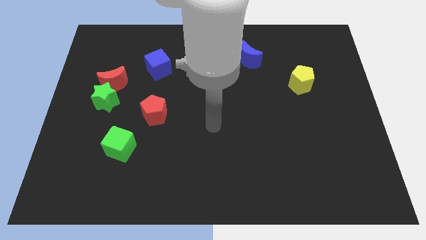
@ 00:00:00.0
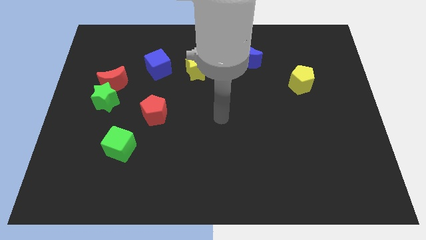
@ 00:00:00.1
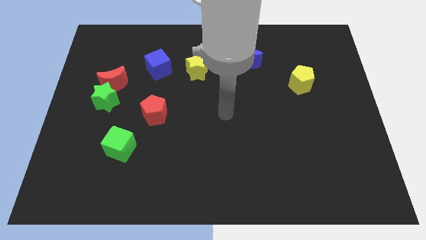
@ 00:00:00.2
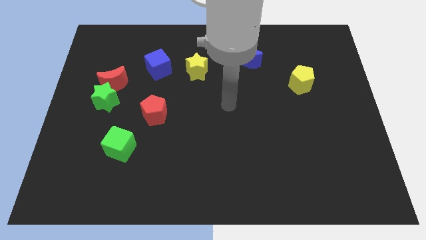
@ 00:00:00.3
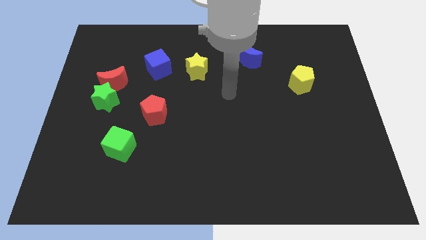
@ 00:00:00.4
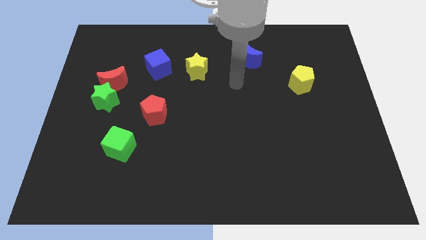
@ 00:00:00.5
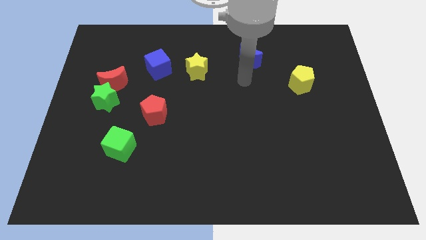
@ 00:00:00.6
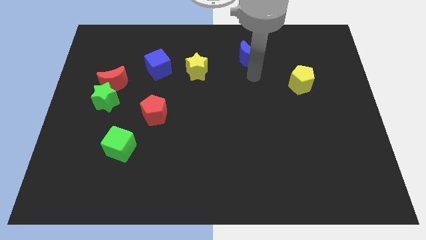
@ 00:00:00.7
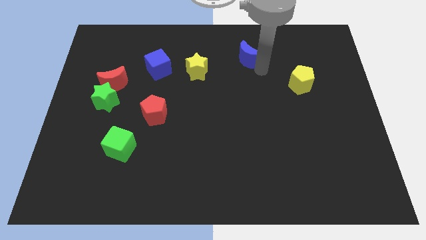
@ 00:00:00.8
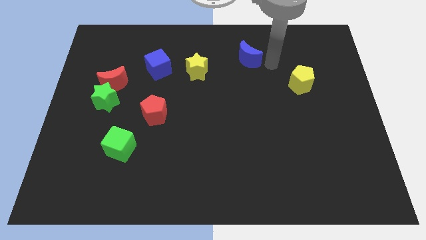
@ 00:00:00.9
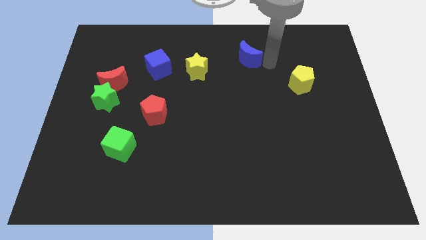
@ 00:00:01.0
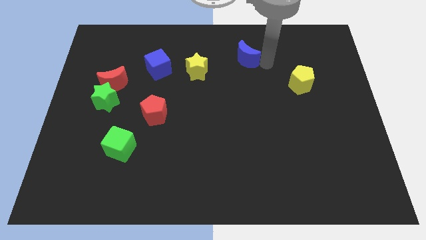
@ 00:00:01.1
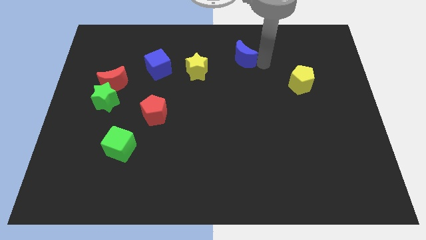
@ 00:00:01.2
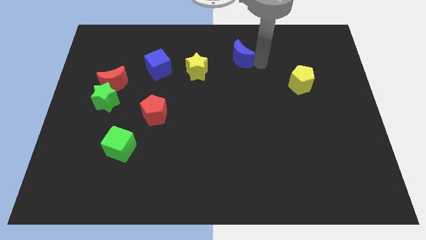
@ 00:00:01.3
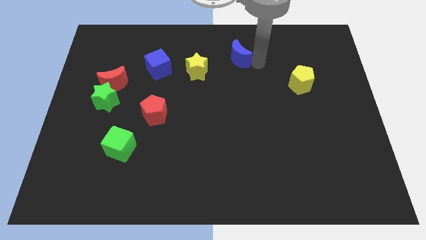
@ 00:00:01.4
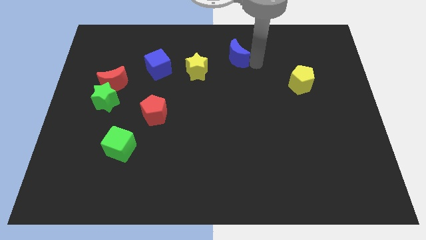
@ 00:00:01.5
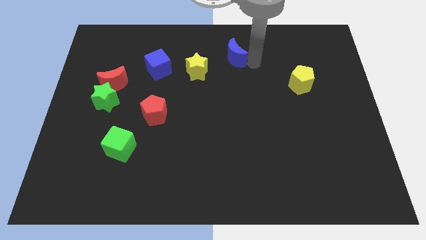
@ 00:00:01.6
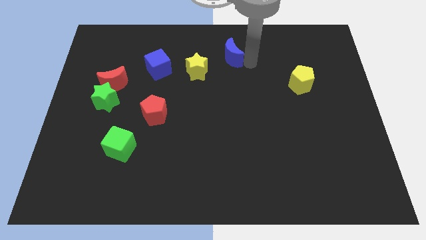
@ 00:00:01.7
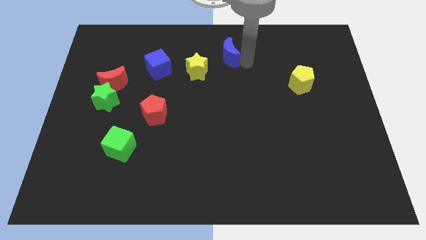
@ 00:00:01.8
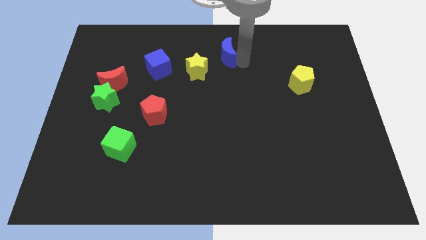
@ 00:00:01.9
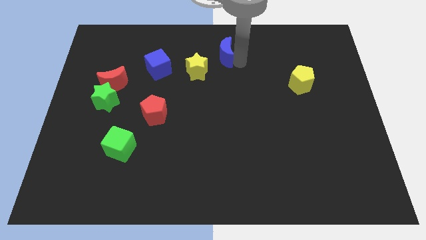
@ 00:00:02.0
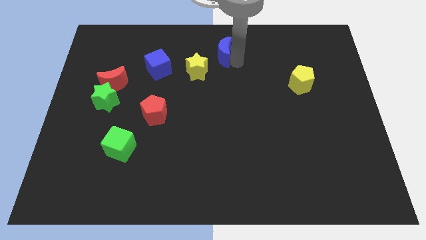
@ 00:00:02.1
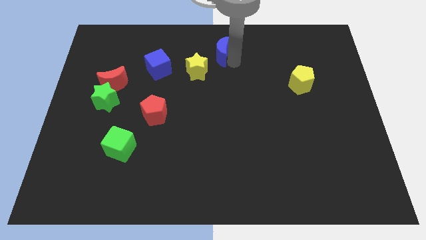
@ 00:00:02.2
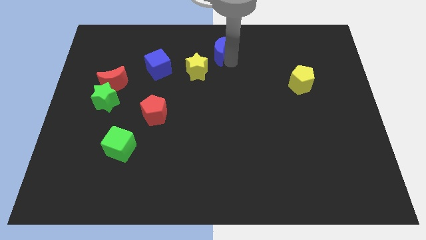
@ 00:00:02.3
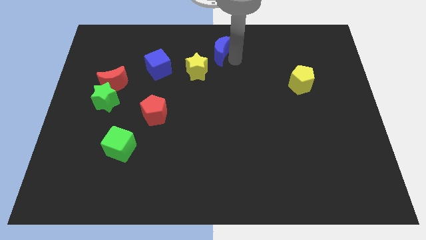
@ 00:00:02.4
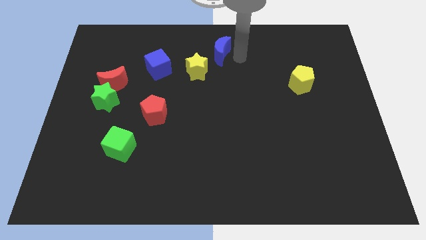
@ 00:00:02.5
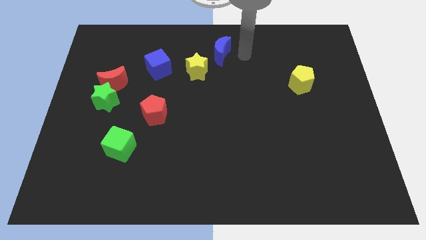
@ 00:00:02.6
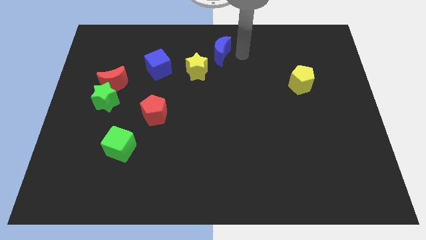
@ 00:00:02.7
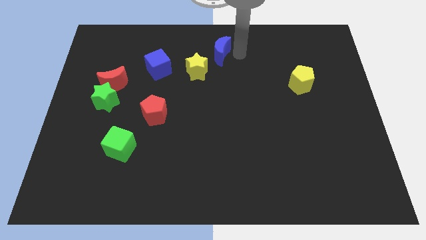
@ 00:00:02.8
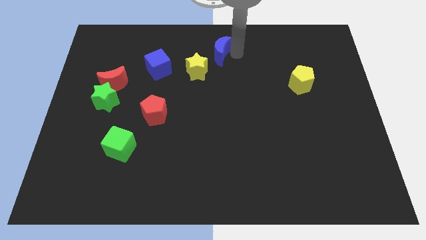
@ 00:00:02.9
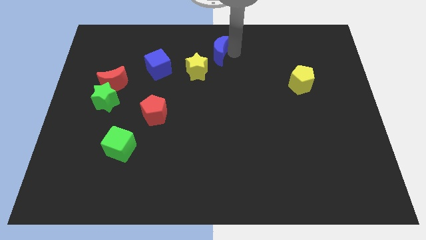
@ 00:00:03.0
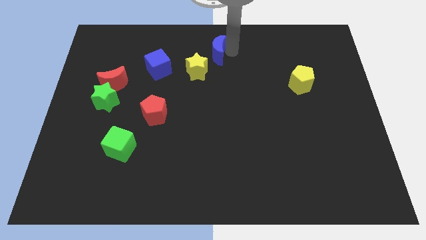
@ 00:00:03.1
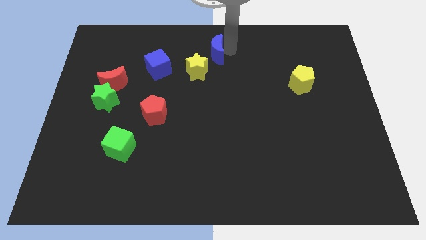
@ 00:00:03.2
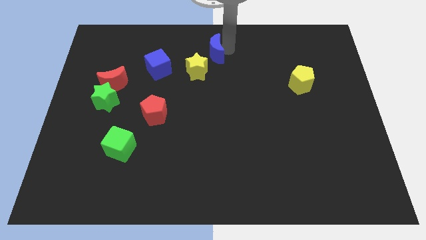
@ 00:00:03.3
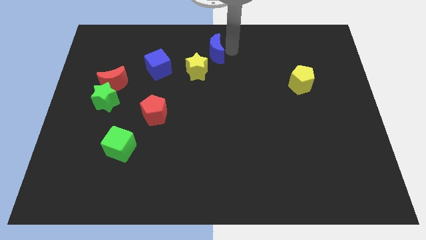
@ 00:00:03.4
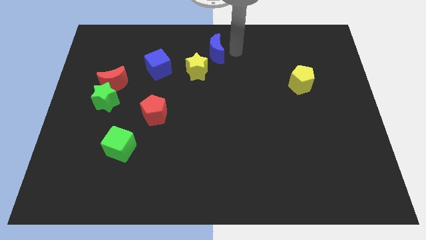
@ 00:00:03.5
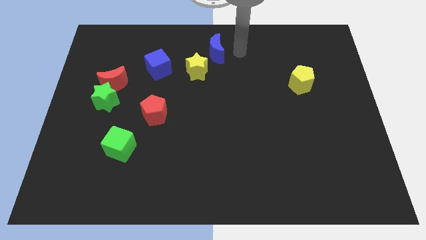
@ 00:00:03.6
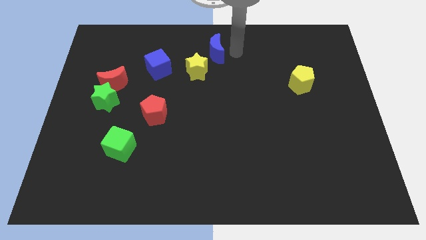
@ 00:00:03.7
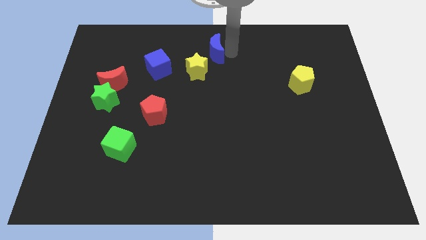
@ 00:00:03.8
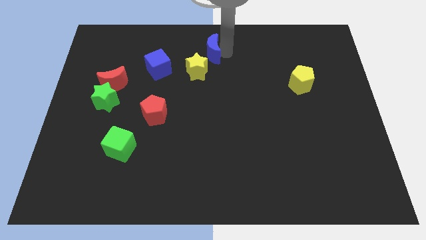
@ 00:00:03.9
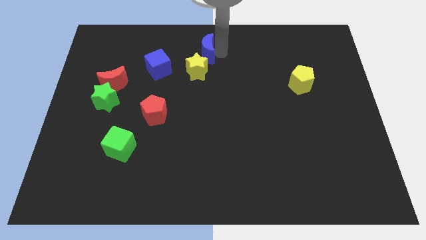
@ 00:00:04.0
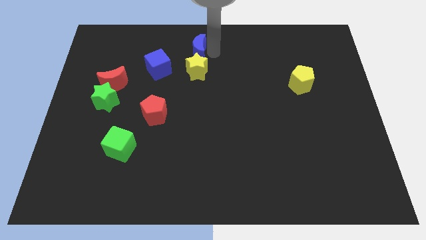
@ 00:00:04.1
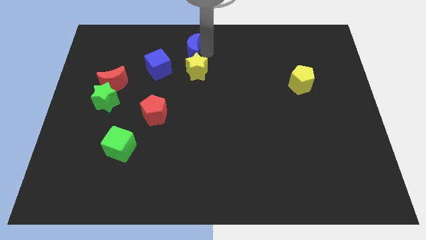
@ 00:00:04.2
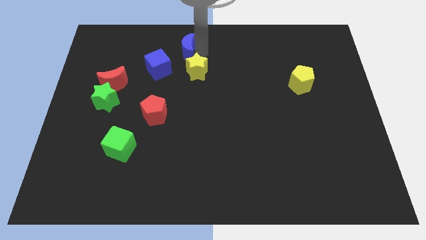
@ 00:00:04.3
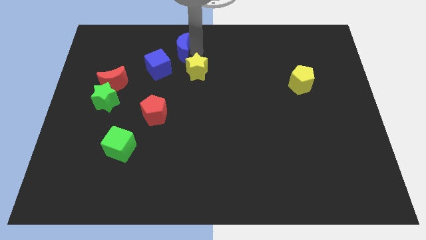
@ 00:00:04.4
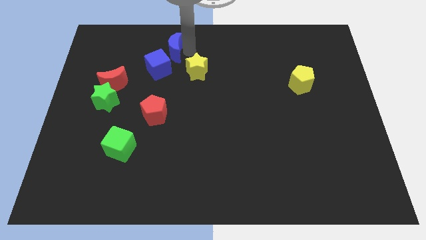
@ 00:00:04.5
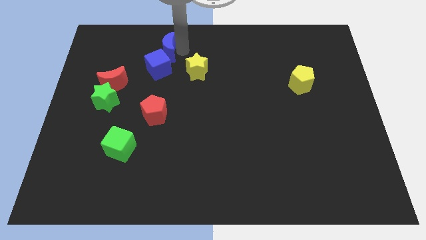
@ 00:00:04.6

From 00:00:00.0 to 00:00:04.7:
slide the blue moon to the left

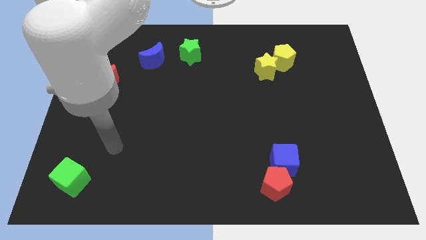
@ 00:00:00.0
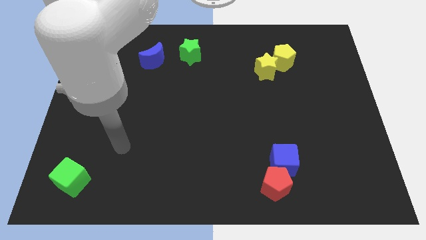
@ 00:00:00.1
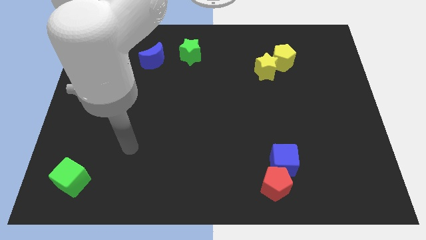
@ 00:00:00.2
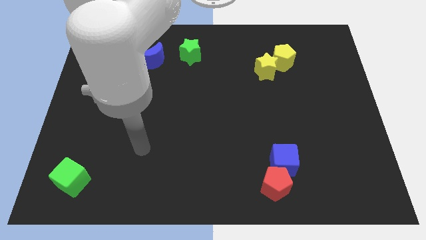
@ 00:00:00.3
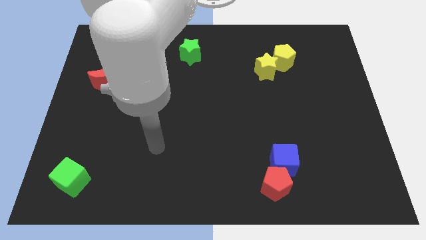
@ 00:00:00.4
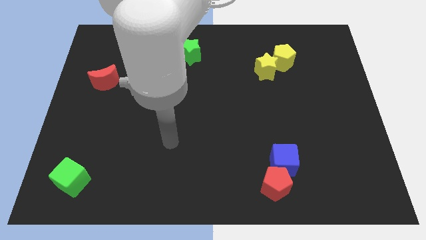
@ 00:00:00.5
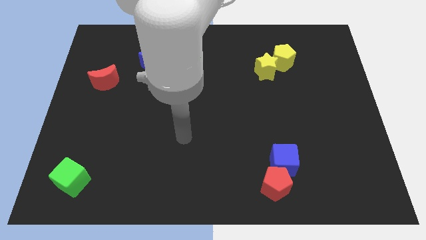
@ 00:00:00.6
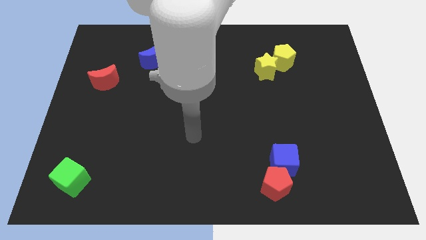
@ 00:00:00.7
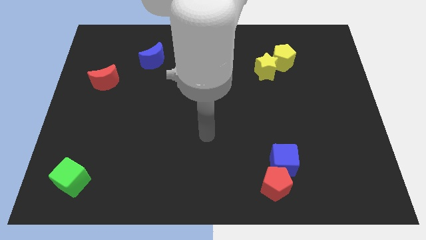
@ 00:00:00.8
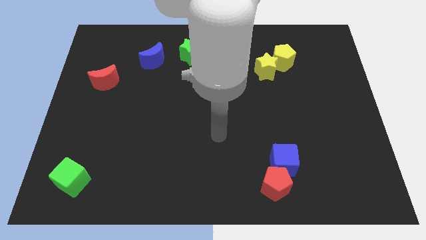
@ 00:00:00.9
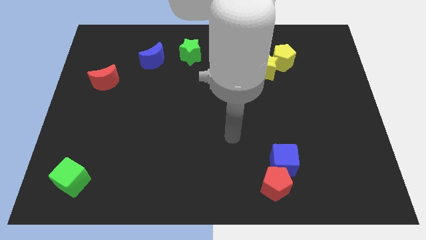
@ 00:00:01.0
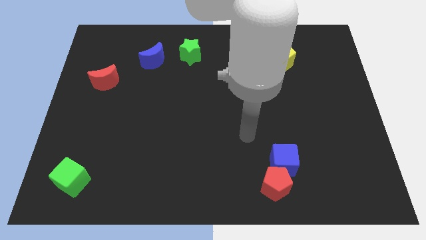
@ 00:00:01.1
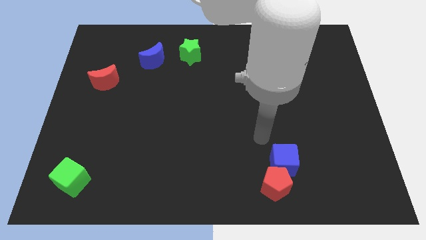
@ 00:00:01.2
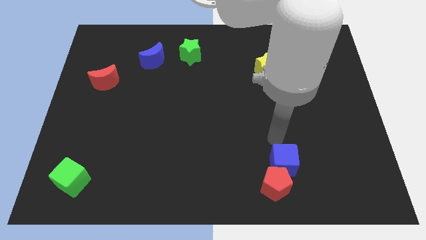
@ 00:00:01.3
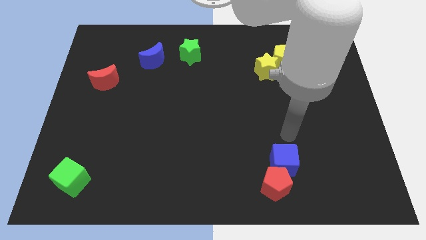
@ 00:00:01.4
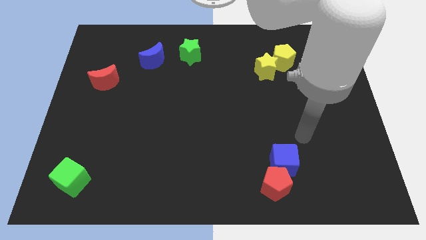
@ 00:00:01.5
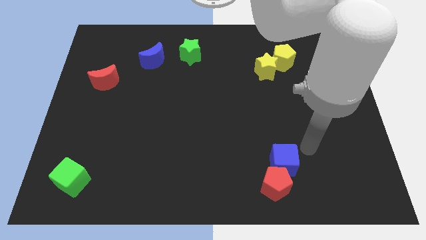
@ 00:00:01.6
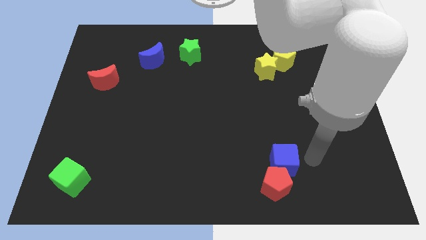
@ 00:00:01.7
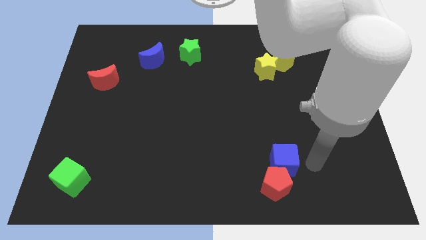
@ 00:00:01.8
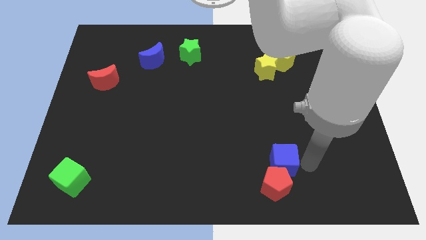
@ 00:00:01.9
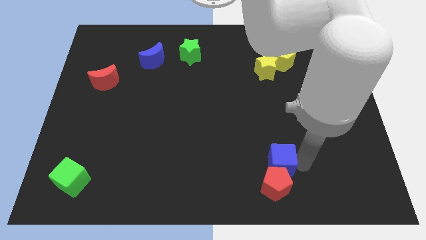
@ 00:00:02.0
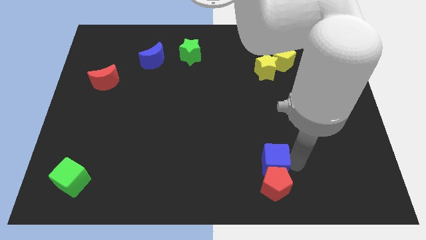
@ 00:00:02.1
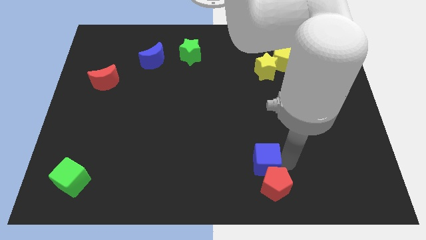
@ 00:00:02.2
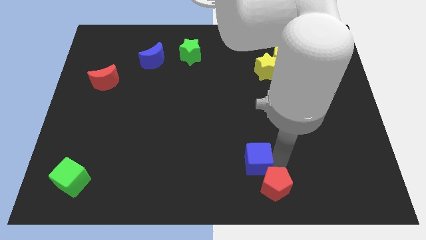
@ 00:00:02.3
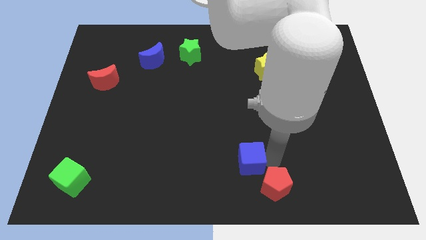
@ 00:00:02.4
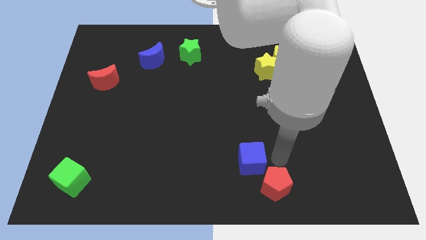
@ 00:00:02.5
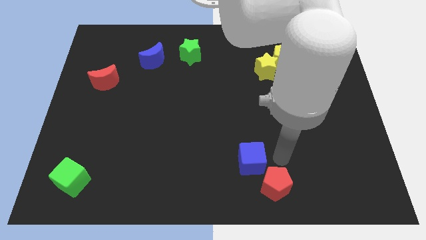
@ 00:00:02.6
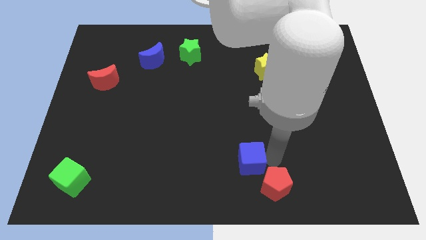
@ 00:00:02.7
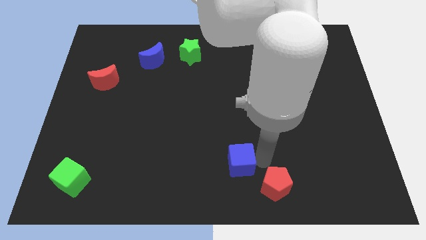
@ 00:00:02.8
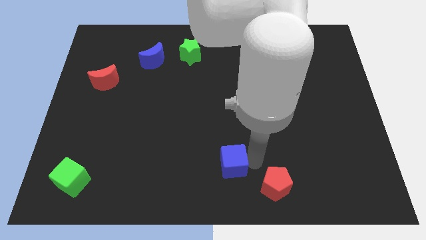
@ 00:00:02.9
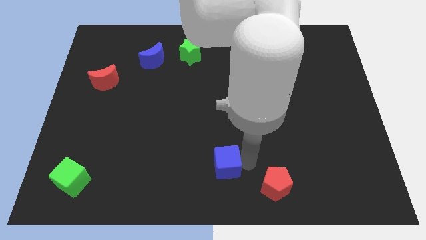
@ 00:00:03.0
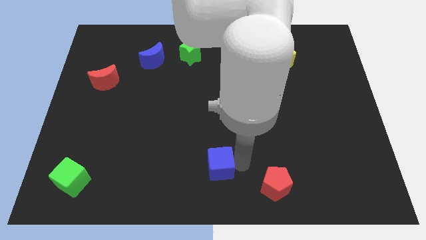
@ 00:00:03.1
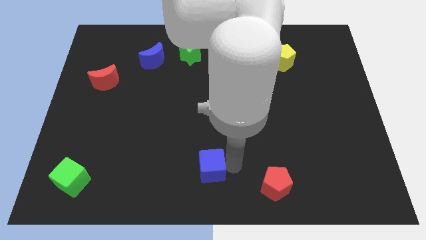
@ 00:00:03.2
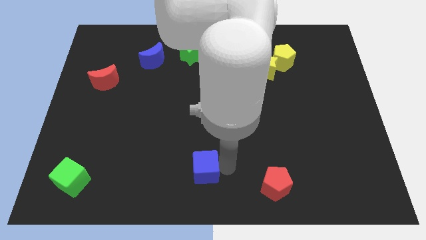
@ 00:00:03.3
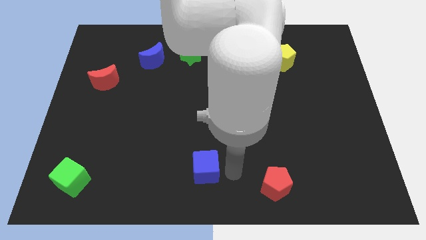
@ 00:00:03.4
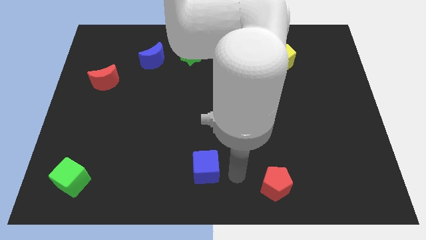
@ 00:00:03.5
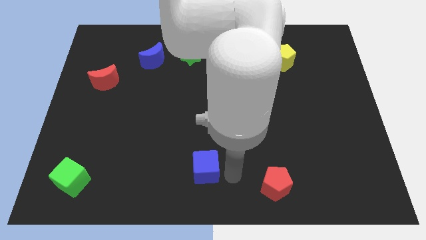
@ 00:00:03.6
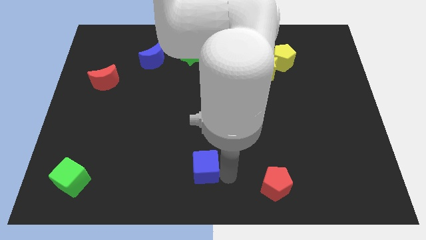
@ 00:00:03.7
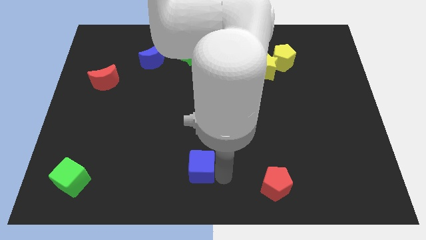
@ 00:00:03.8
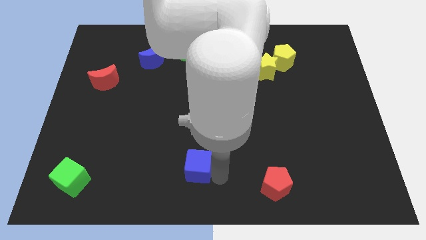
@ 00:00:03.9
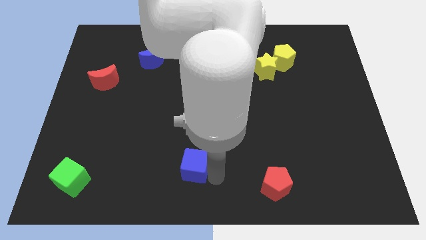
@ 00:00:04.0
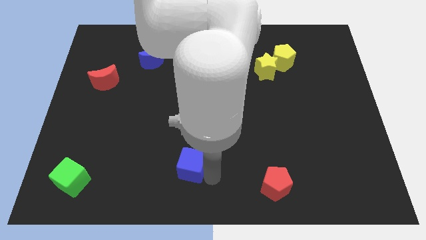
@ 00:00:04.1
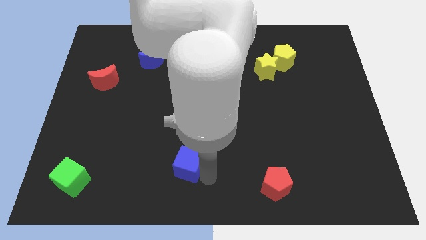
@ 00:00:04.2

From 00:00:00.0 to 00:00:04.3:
push the blue cube to the left
